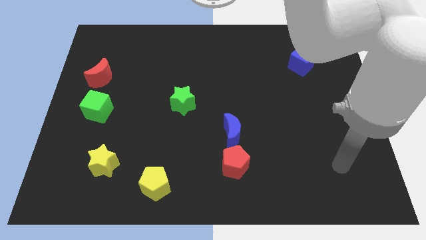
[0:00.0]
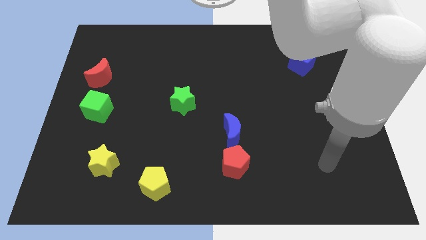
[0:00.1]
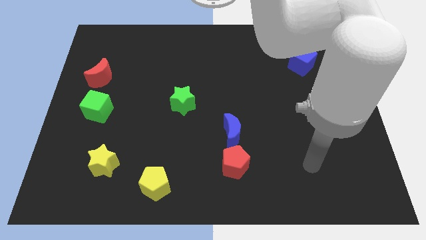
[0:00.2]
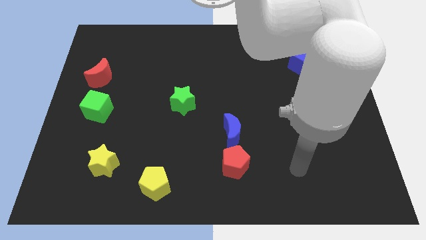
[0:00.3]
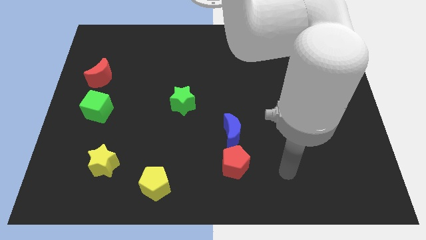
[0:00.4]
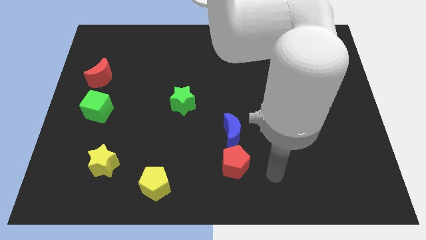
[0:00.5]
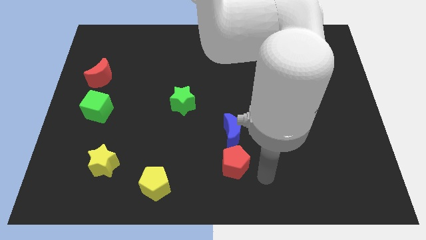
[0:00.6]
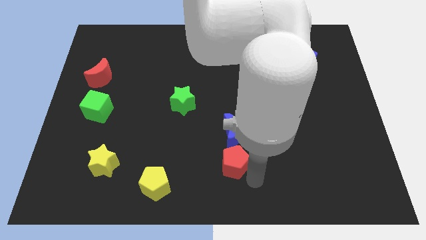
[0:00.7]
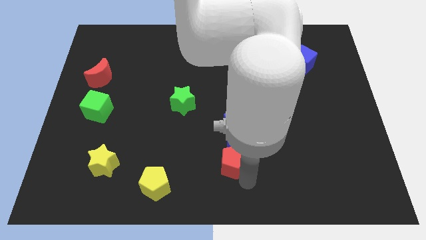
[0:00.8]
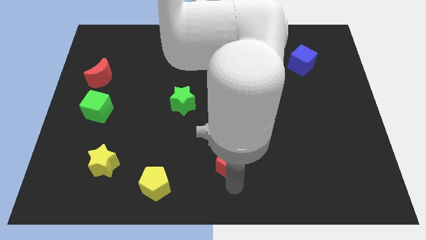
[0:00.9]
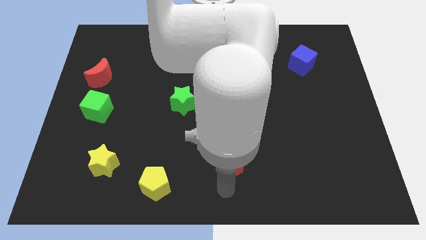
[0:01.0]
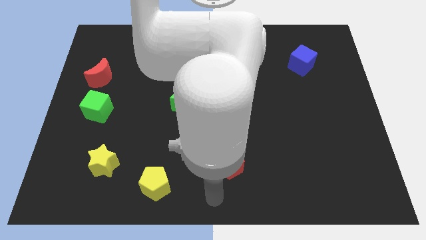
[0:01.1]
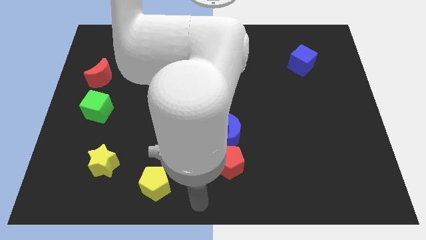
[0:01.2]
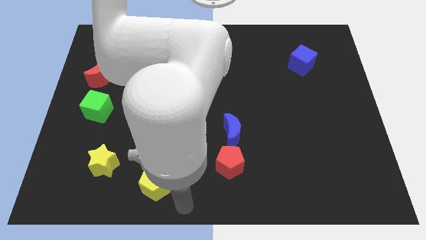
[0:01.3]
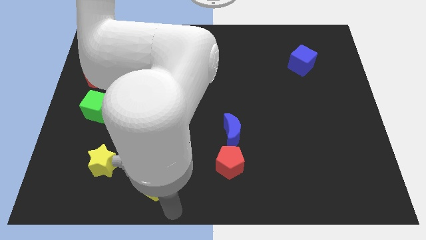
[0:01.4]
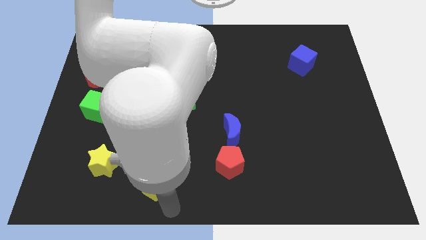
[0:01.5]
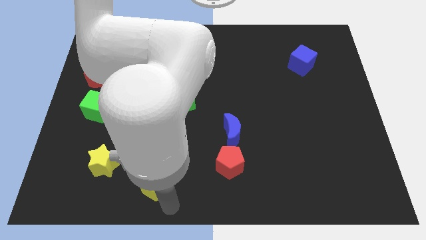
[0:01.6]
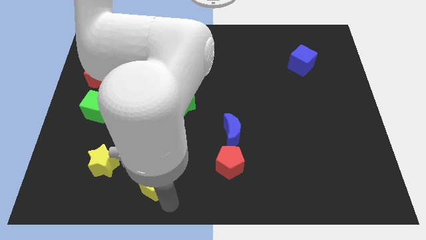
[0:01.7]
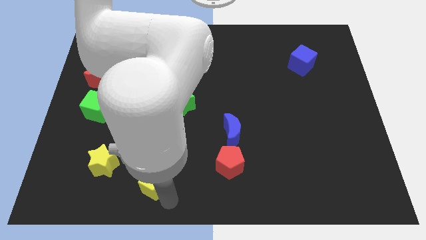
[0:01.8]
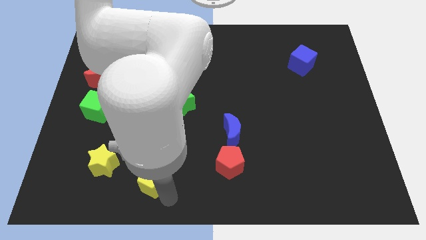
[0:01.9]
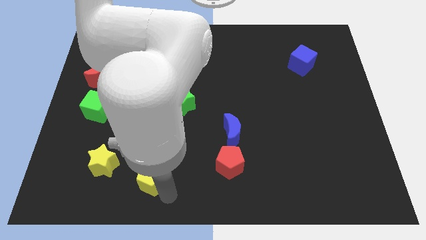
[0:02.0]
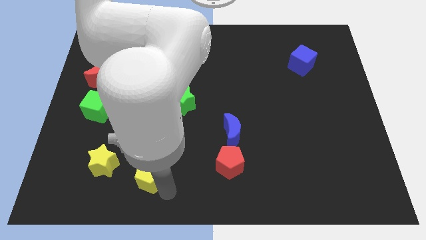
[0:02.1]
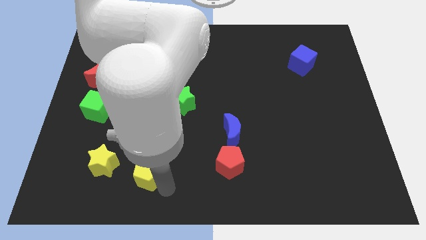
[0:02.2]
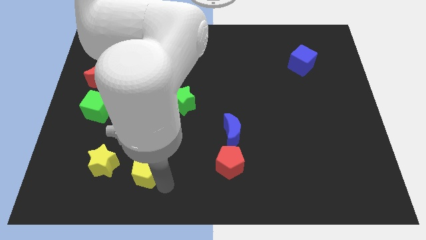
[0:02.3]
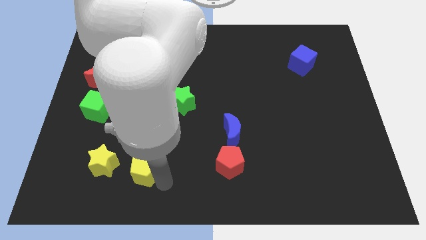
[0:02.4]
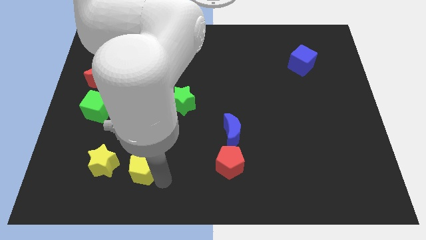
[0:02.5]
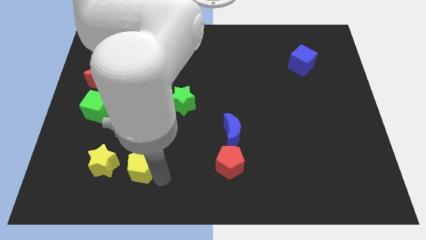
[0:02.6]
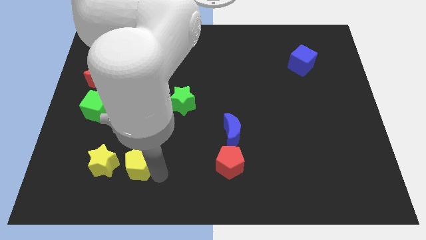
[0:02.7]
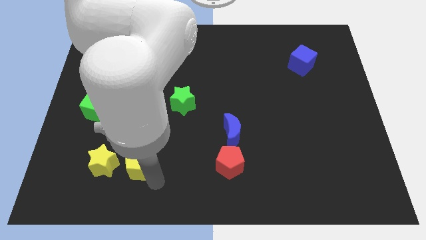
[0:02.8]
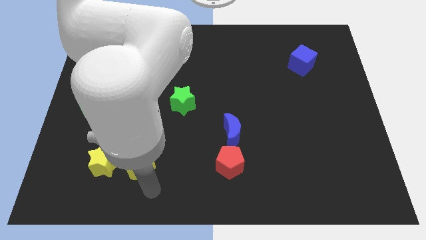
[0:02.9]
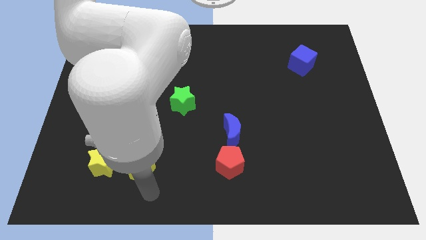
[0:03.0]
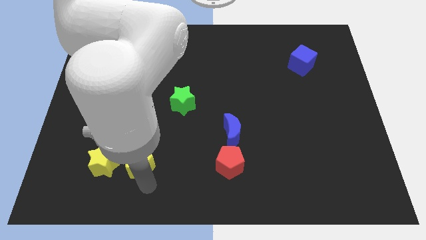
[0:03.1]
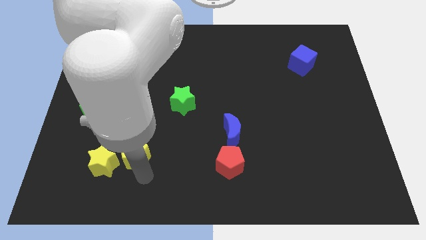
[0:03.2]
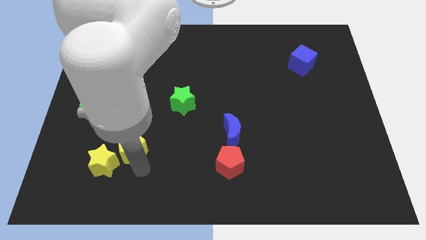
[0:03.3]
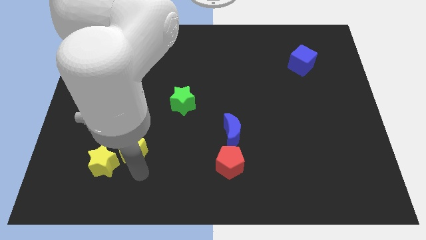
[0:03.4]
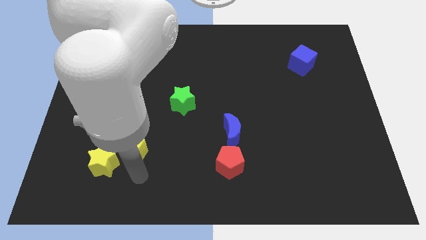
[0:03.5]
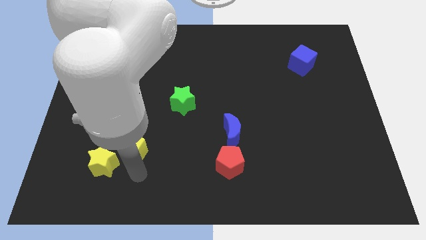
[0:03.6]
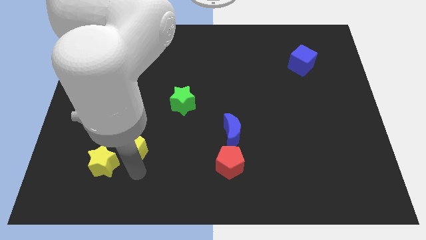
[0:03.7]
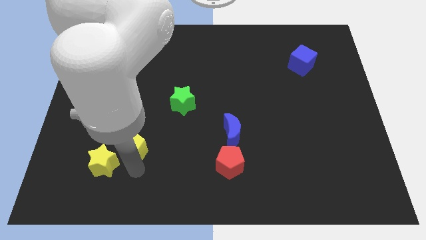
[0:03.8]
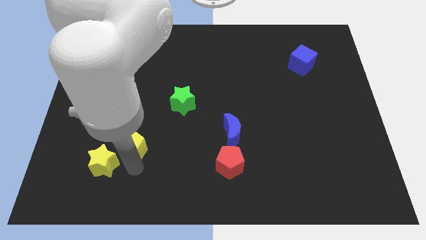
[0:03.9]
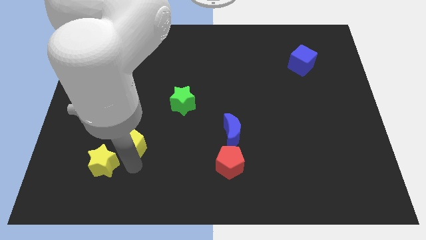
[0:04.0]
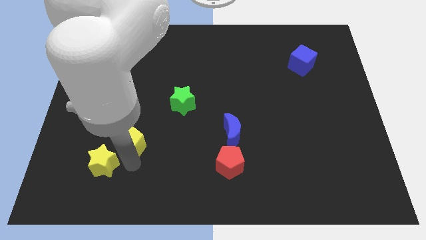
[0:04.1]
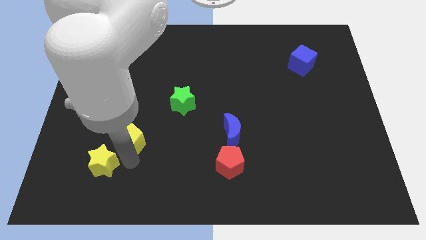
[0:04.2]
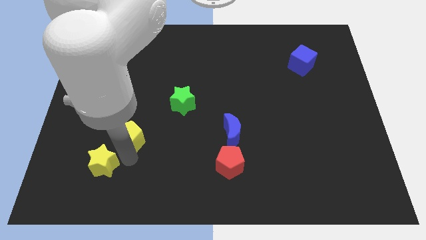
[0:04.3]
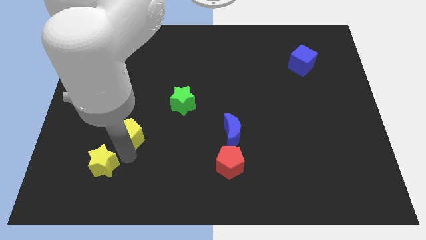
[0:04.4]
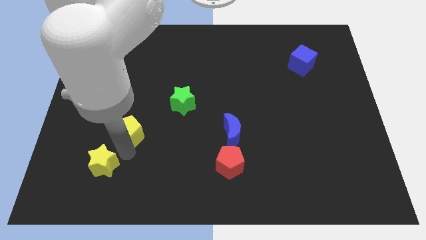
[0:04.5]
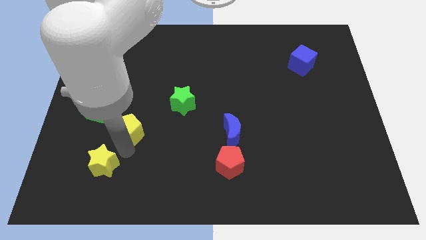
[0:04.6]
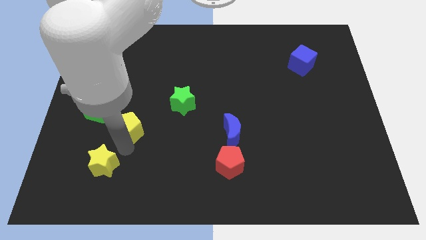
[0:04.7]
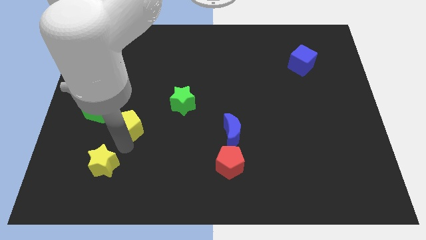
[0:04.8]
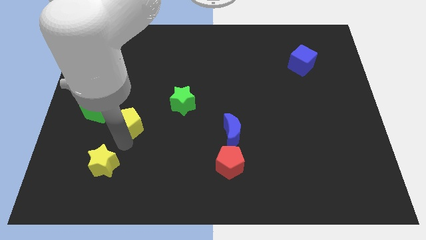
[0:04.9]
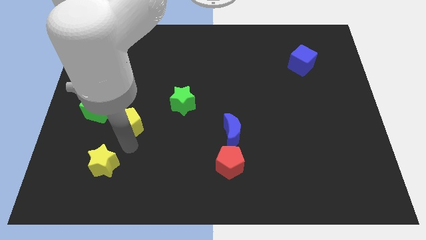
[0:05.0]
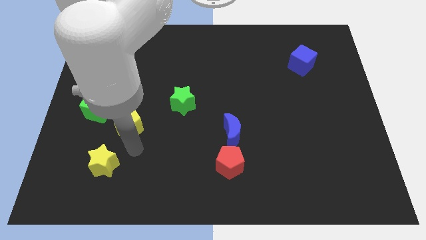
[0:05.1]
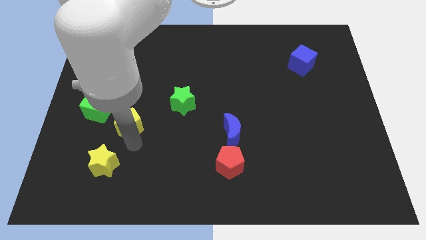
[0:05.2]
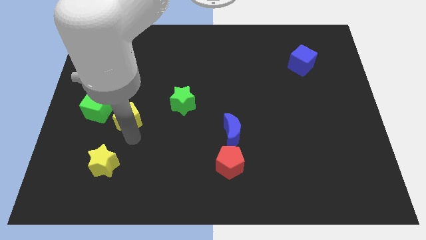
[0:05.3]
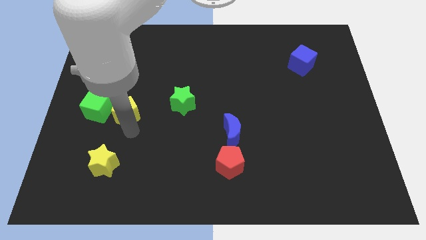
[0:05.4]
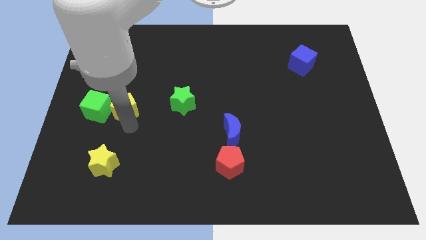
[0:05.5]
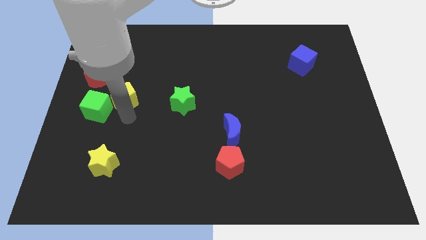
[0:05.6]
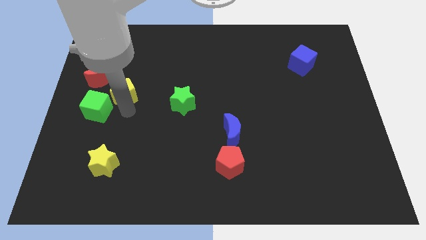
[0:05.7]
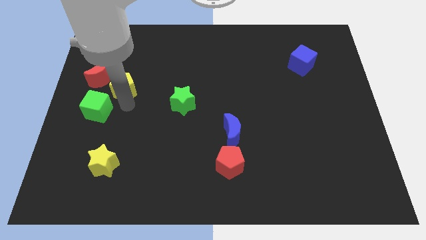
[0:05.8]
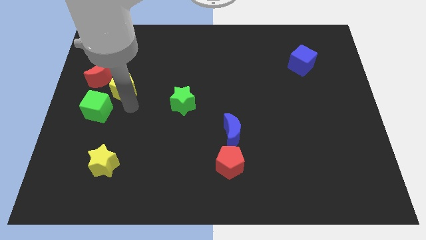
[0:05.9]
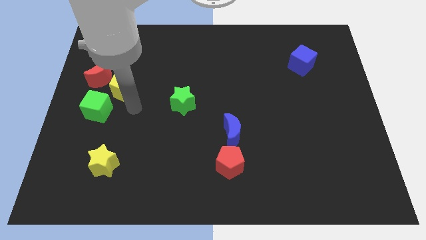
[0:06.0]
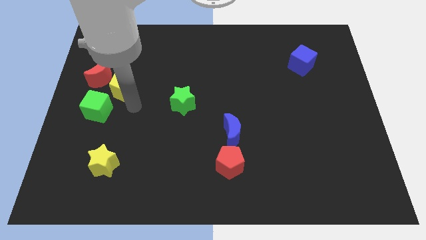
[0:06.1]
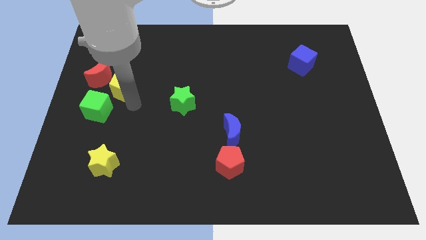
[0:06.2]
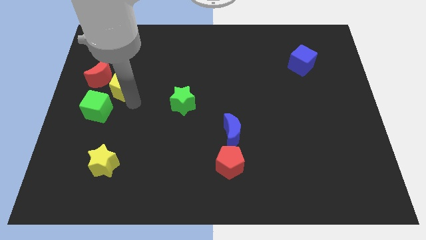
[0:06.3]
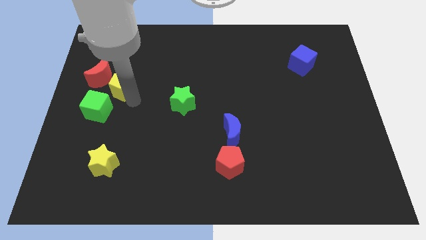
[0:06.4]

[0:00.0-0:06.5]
push the yellow pentagon above the green cube

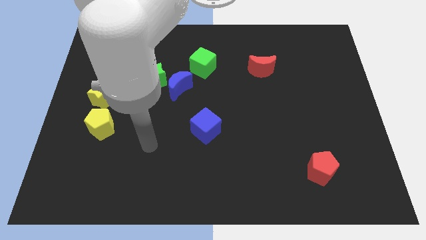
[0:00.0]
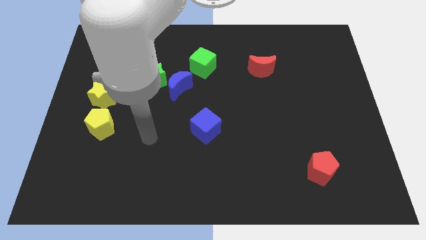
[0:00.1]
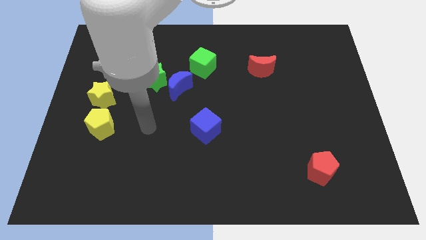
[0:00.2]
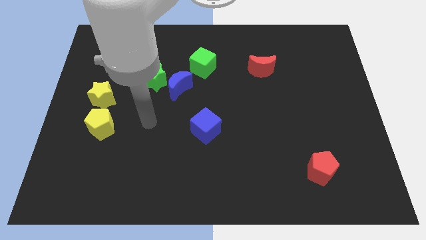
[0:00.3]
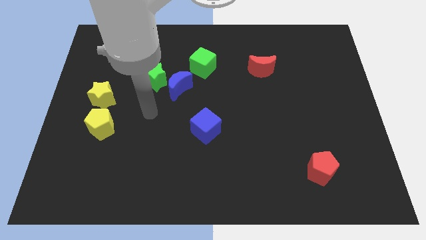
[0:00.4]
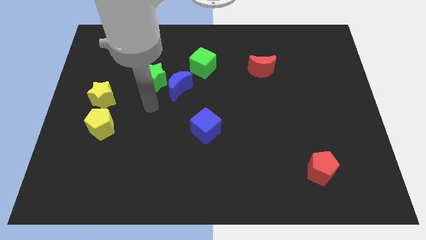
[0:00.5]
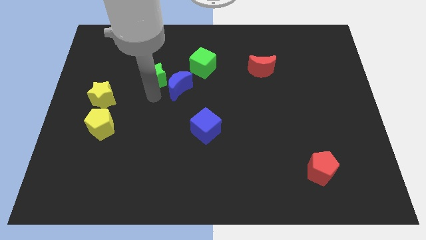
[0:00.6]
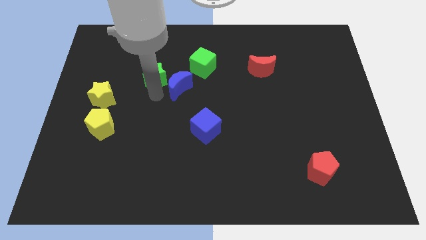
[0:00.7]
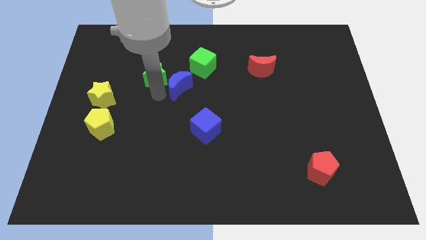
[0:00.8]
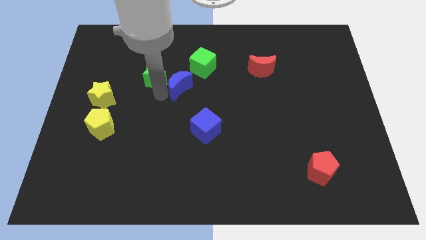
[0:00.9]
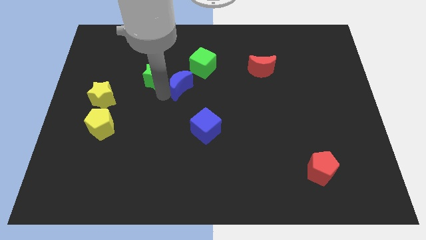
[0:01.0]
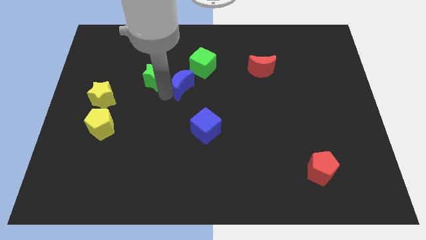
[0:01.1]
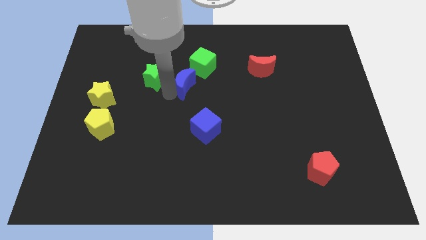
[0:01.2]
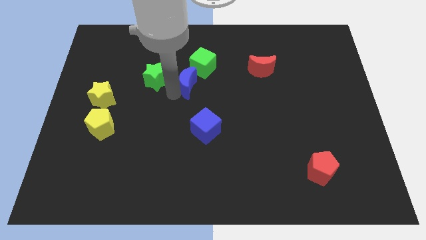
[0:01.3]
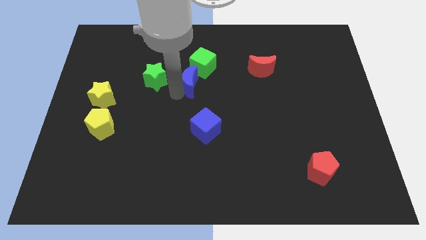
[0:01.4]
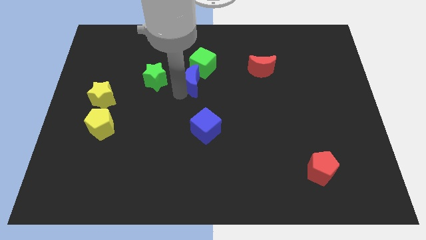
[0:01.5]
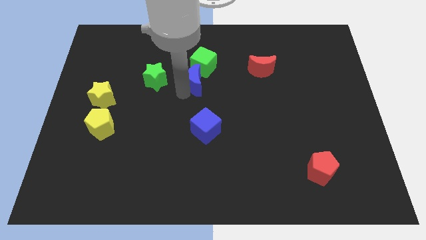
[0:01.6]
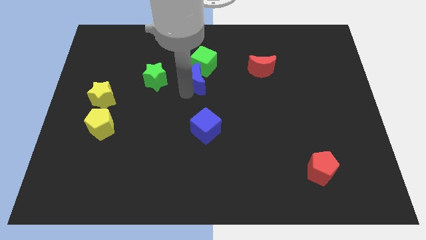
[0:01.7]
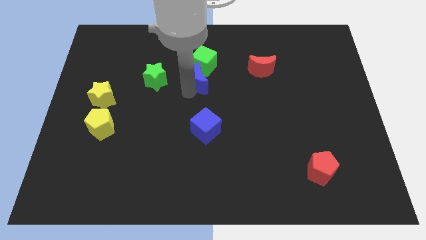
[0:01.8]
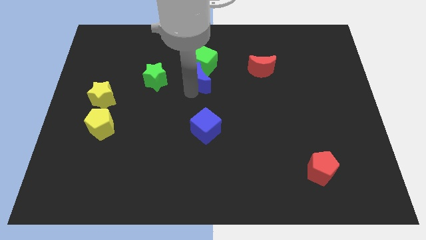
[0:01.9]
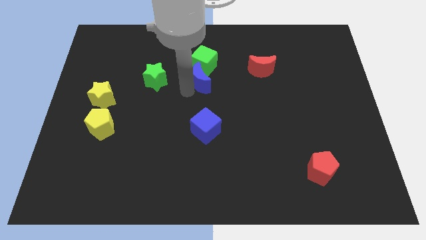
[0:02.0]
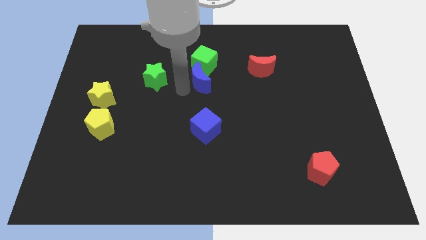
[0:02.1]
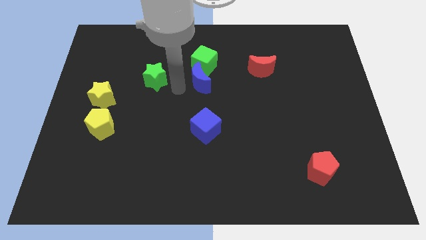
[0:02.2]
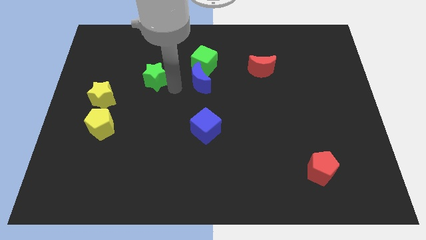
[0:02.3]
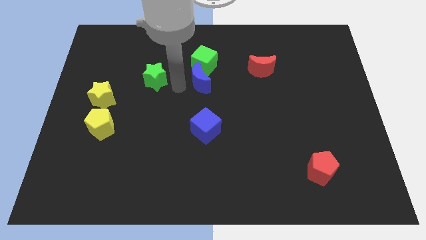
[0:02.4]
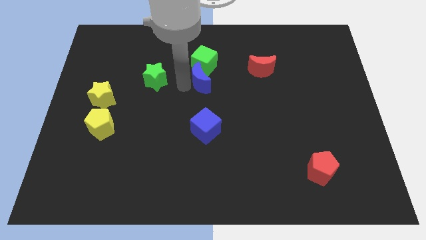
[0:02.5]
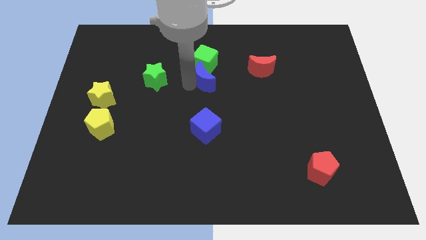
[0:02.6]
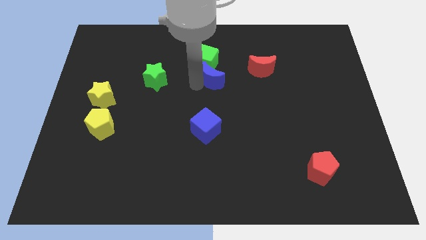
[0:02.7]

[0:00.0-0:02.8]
push the blue moon just left of the red moon
